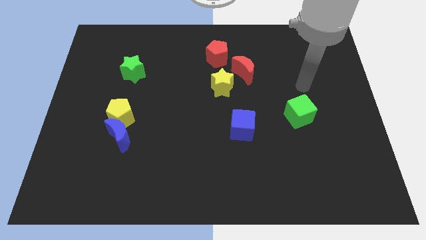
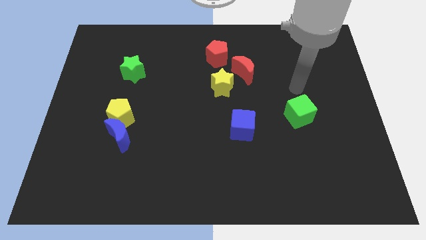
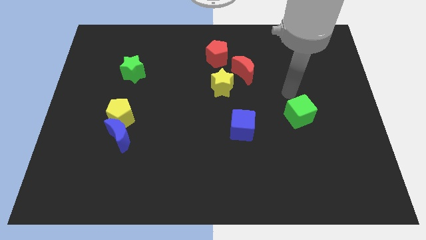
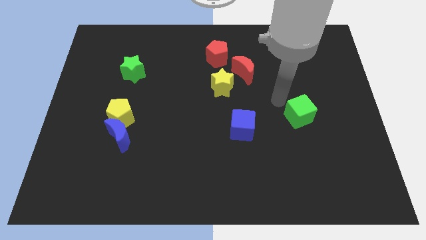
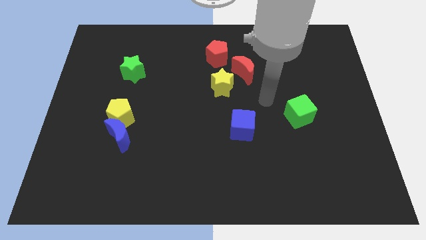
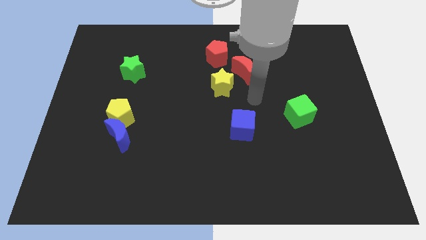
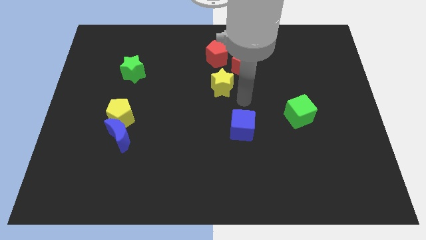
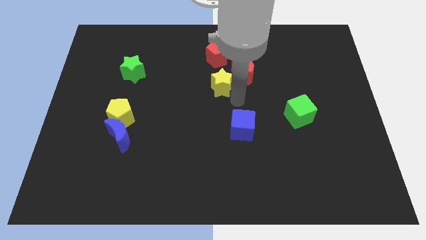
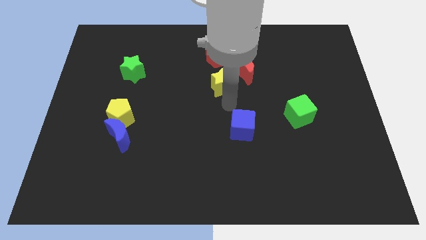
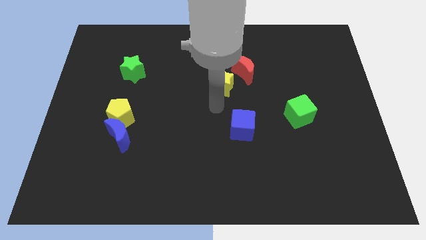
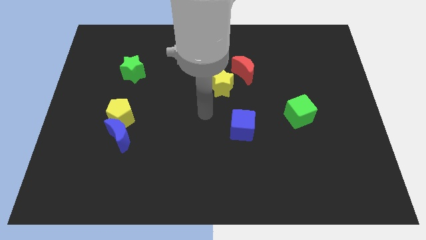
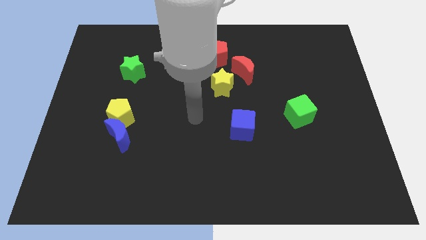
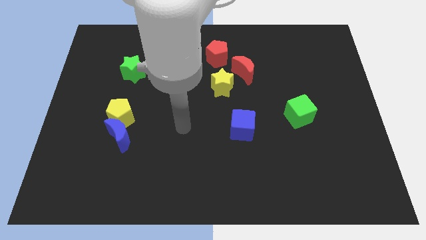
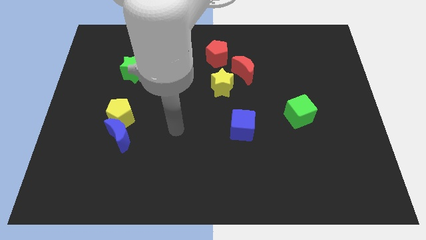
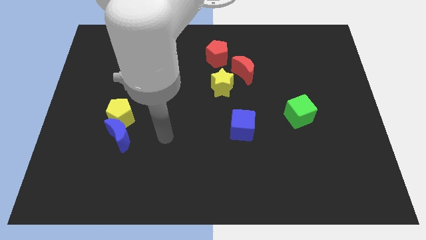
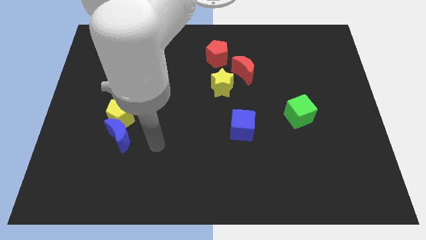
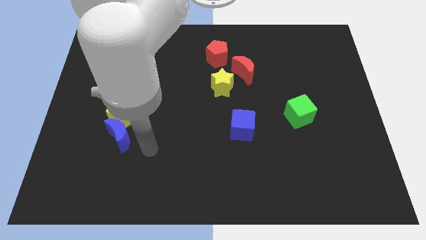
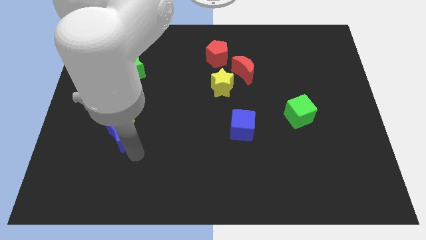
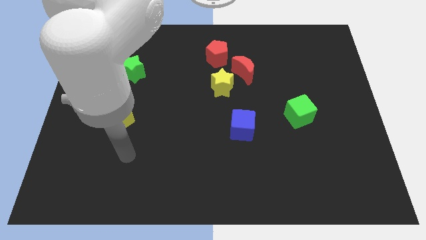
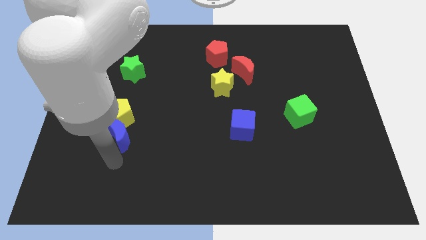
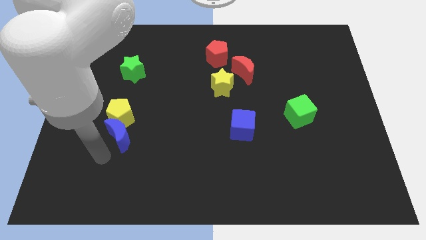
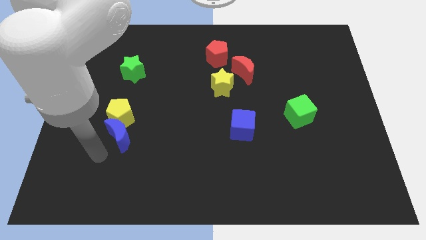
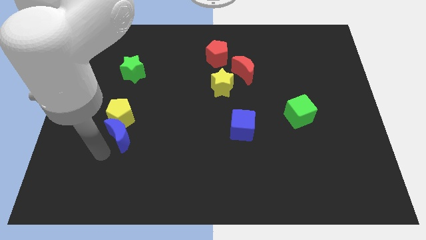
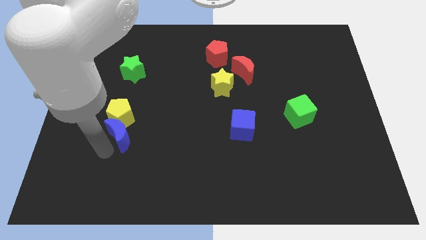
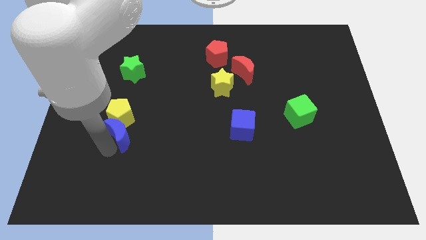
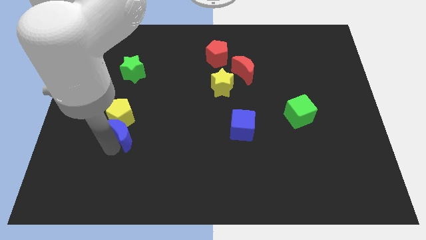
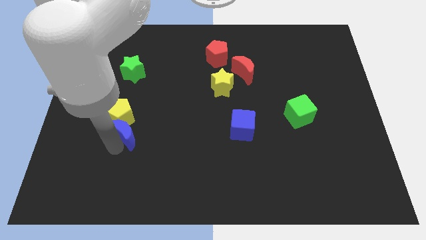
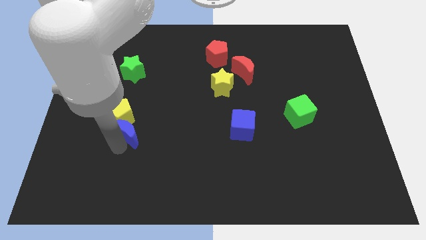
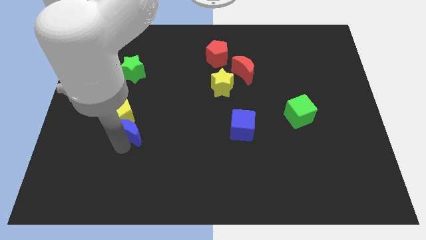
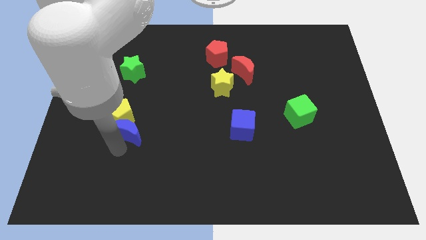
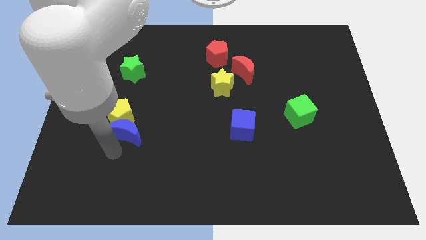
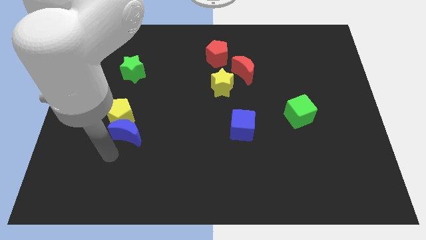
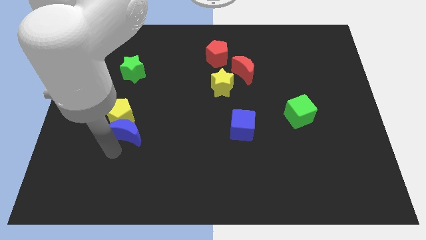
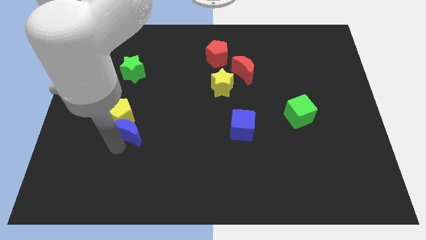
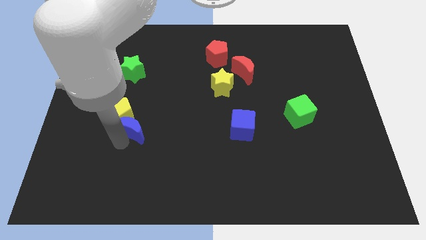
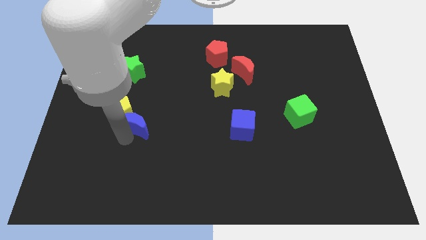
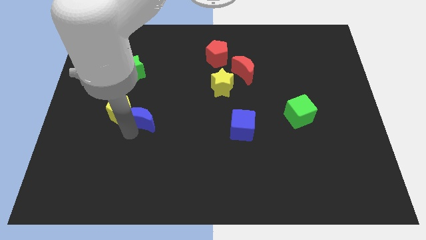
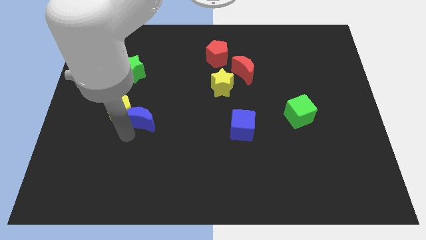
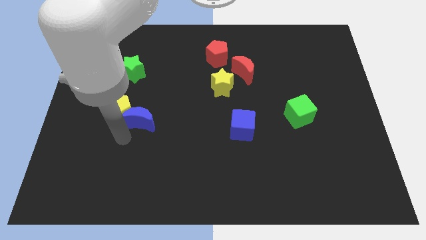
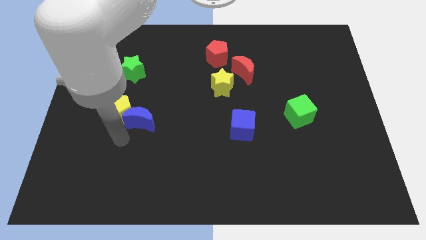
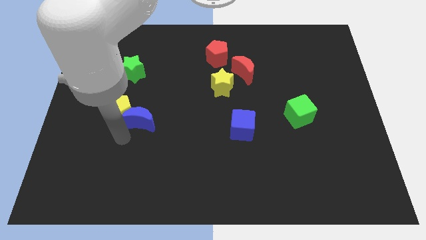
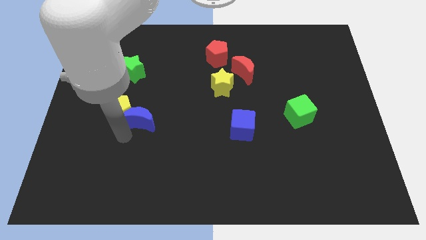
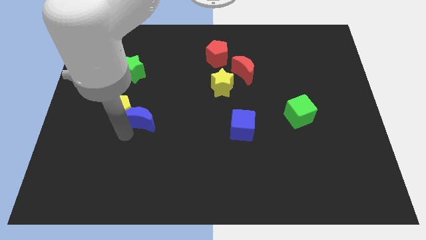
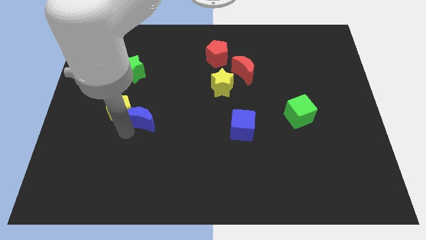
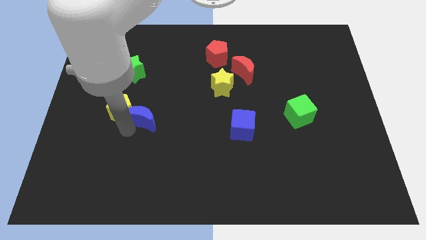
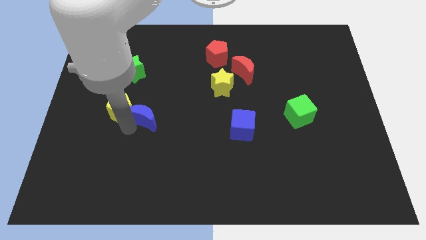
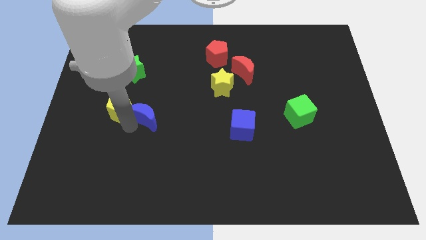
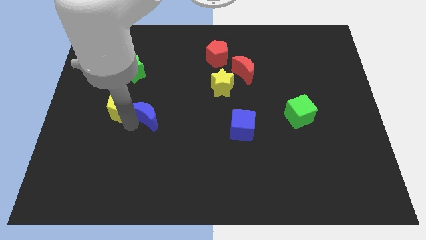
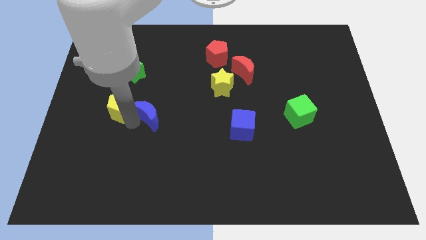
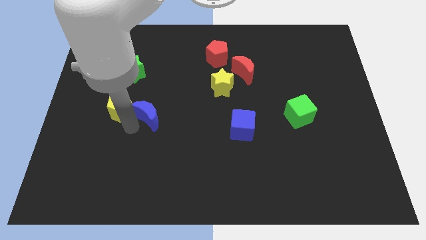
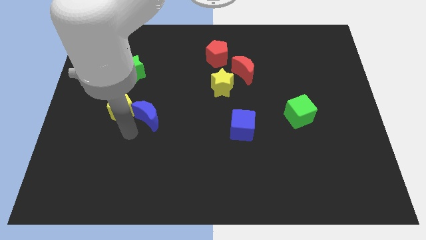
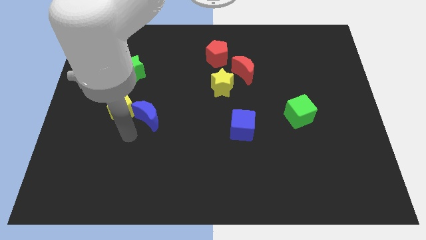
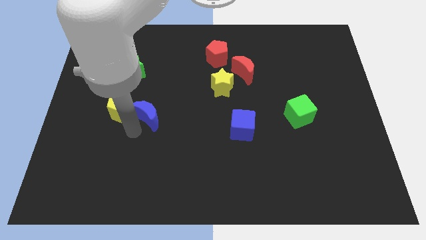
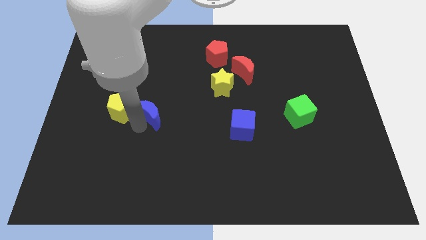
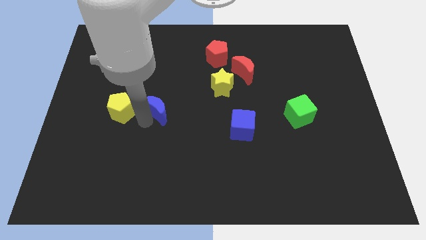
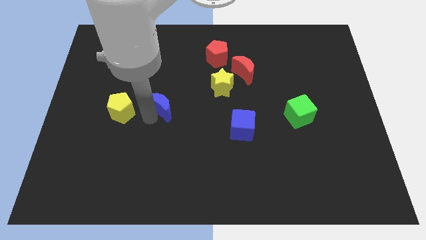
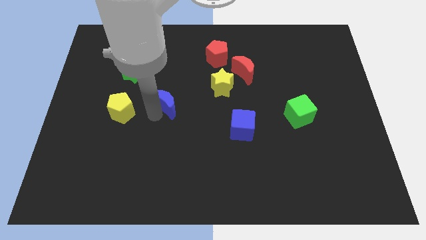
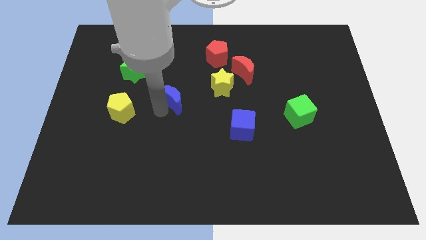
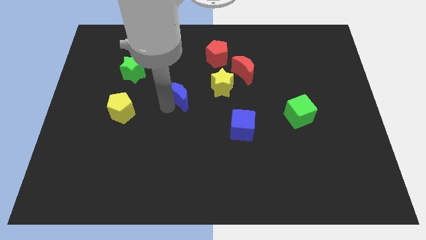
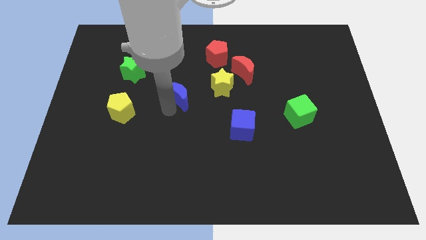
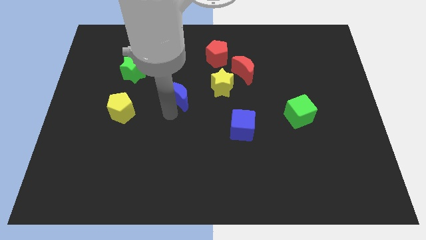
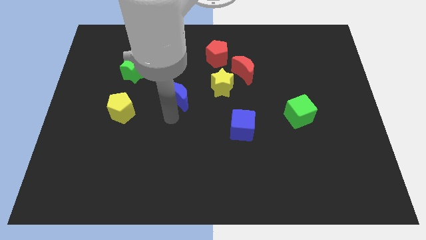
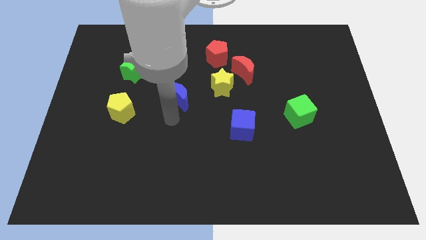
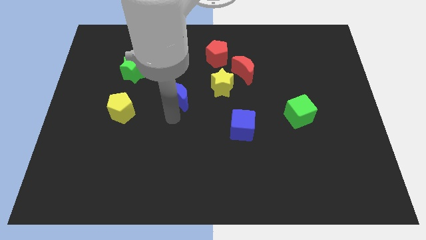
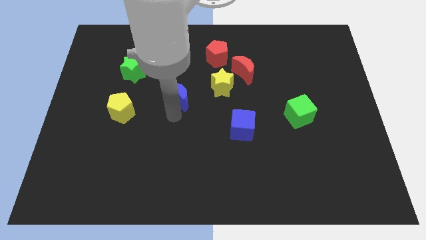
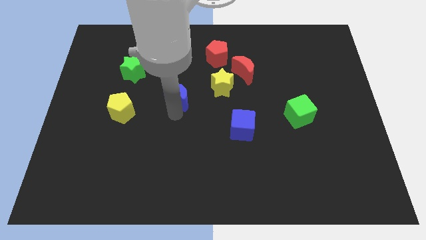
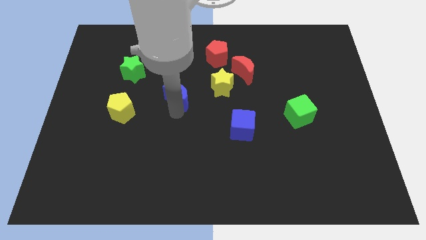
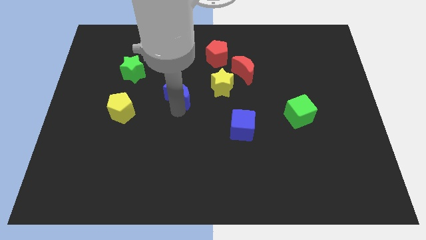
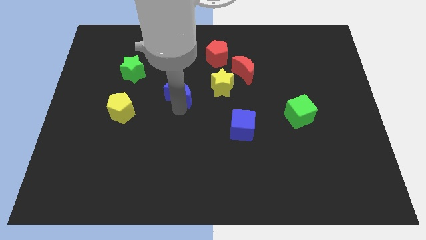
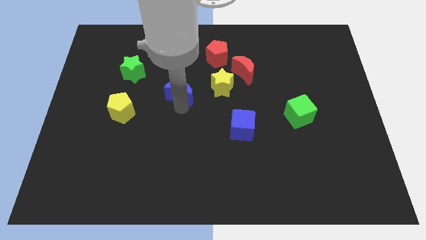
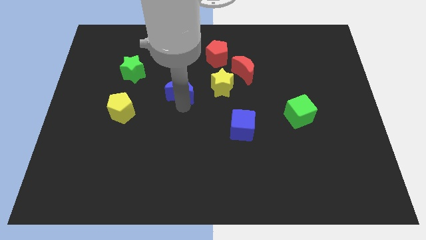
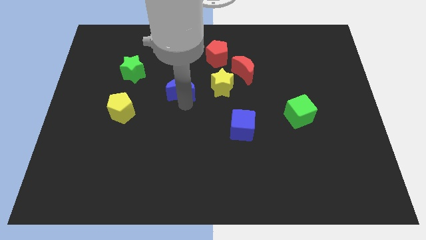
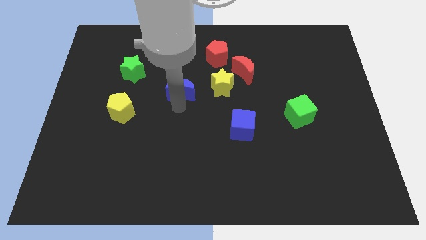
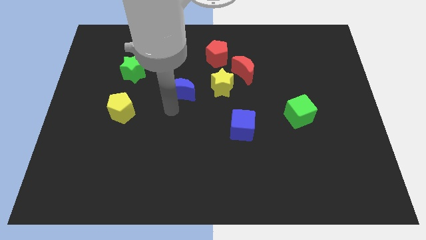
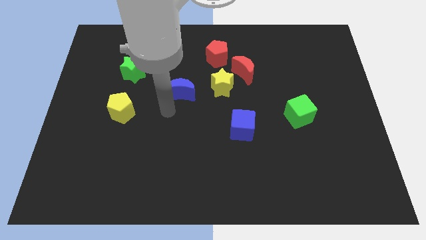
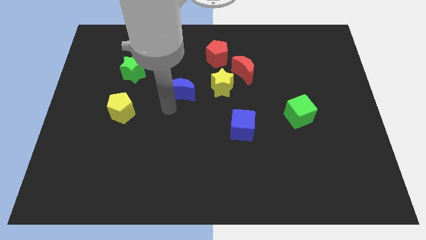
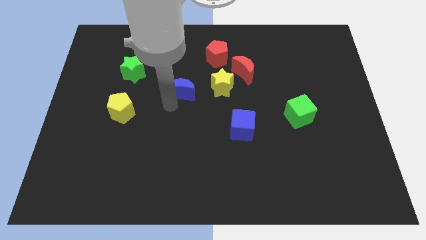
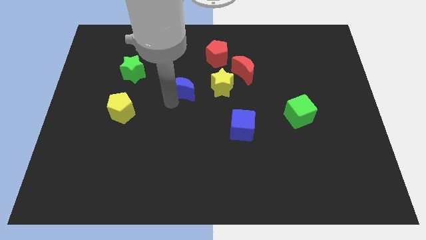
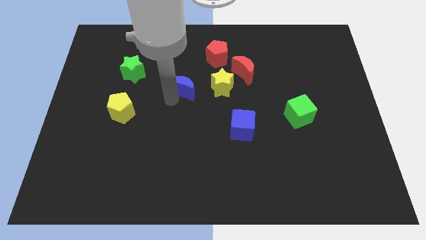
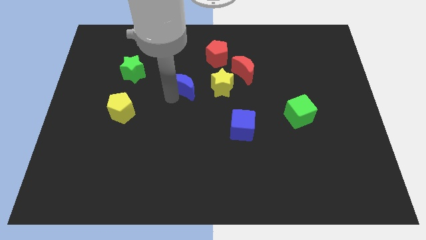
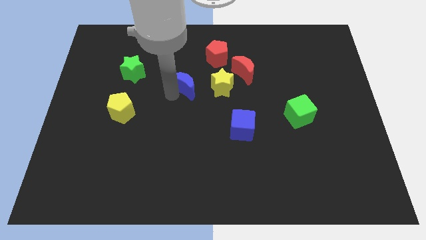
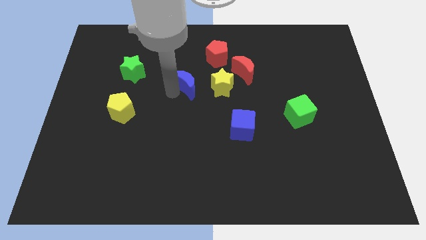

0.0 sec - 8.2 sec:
push the blue moon to the bottom left side of the red pentagon
